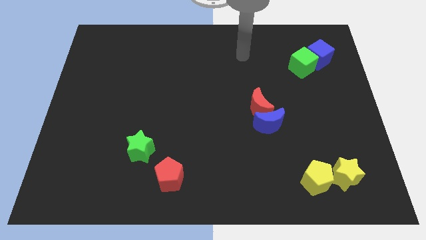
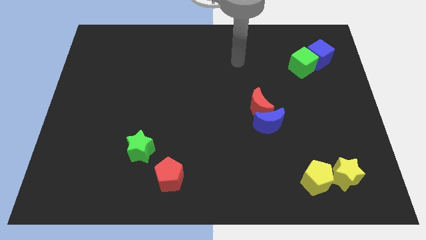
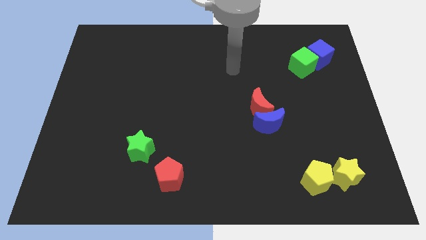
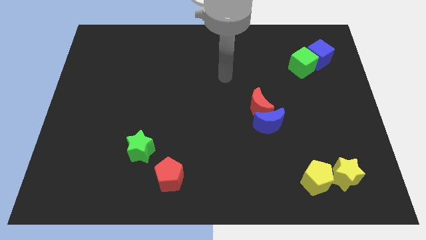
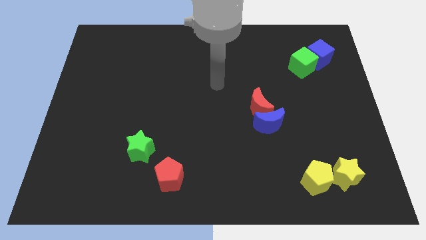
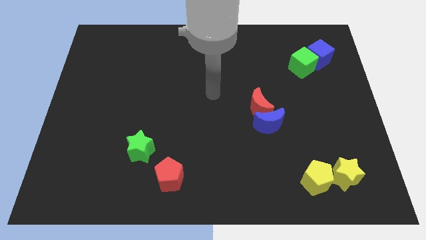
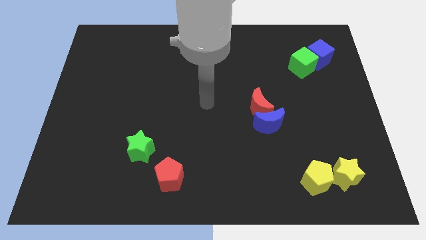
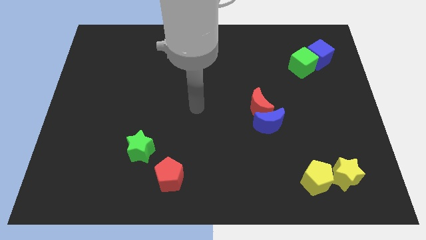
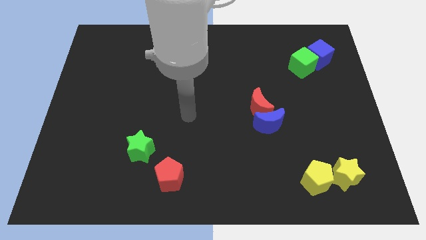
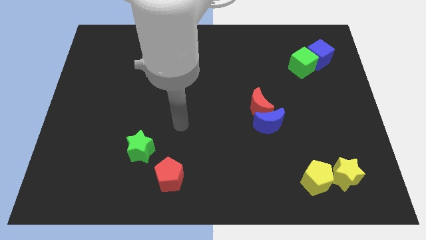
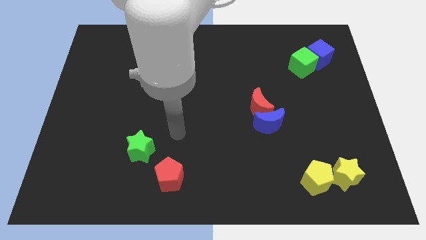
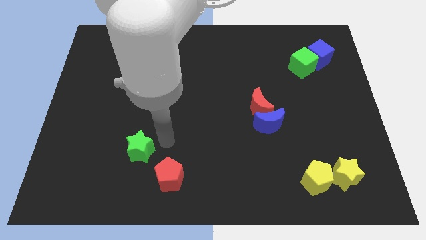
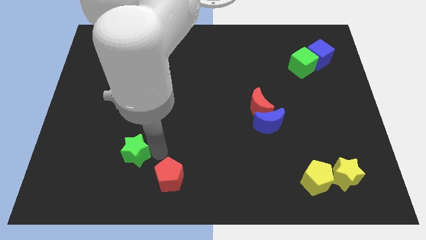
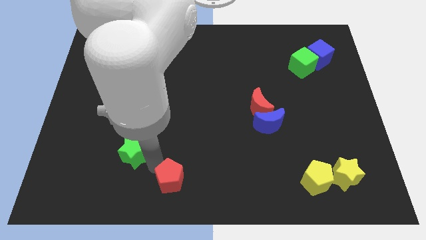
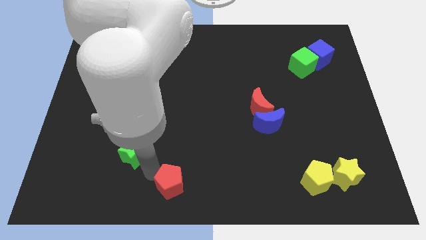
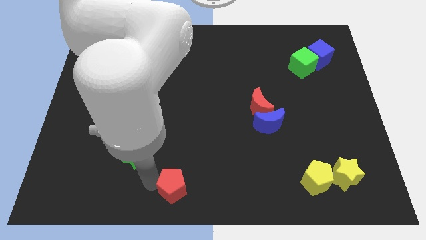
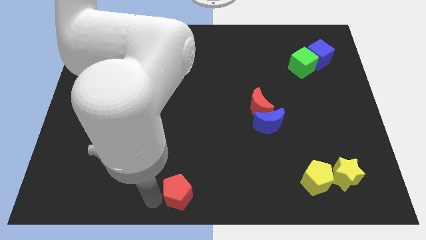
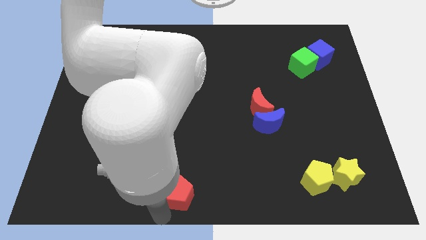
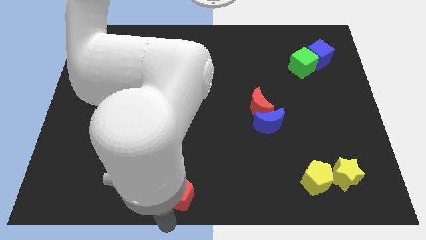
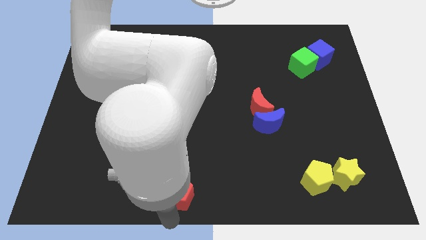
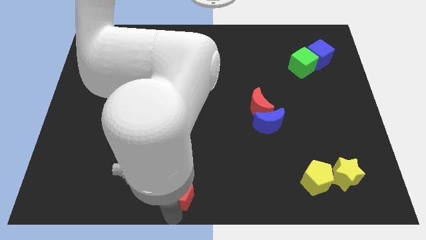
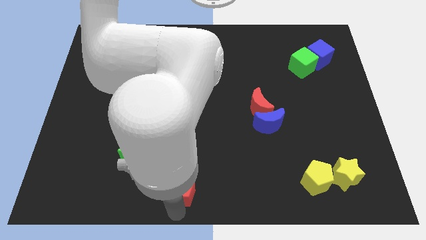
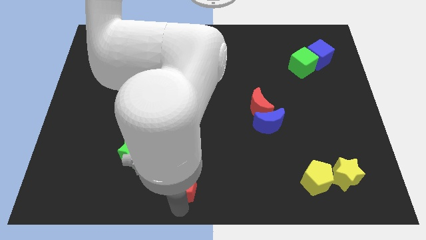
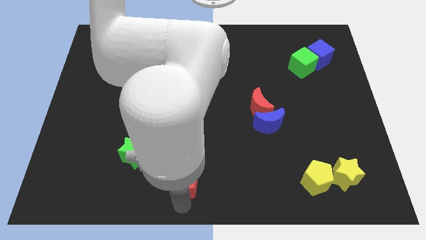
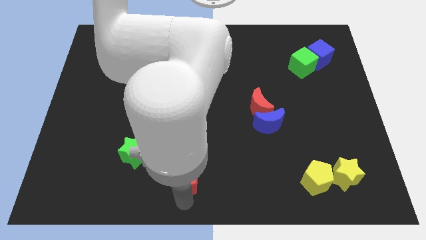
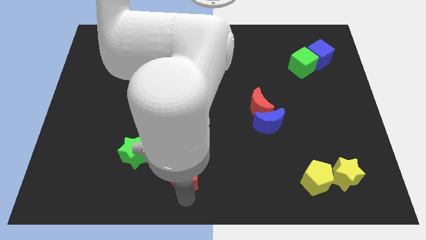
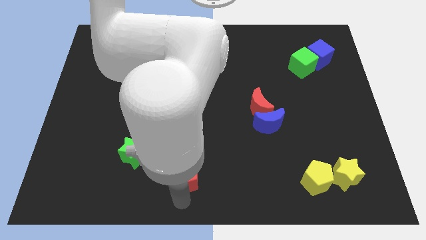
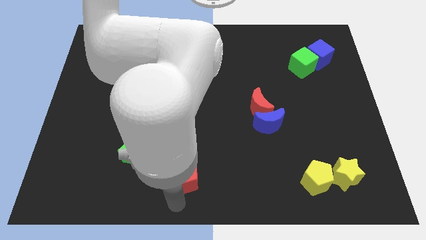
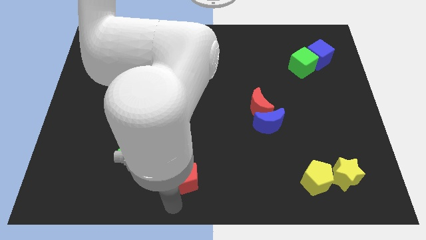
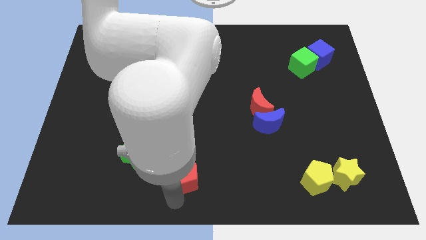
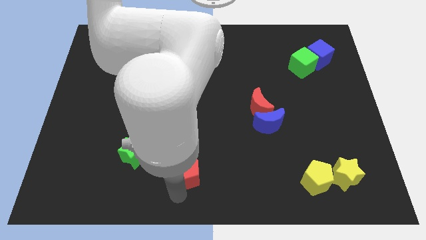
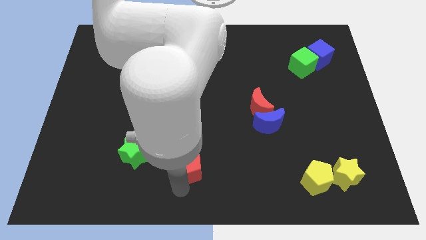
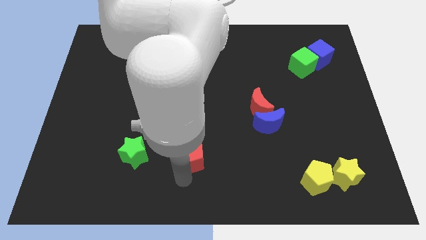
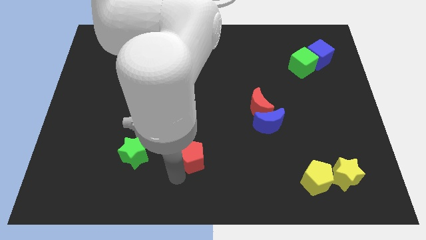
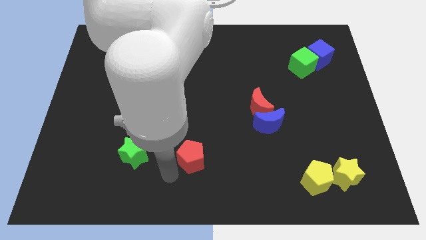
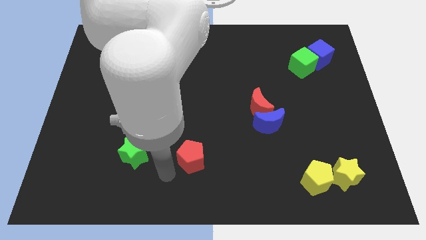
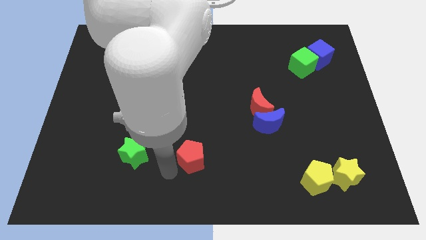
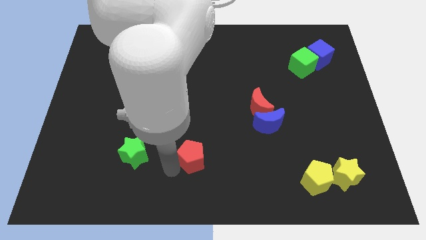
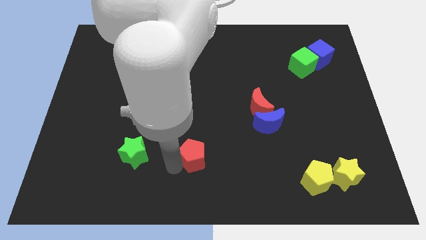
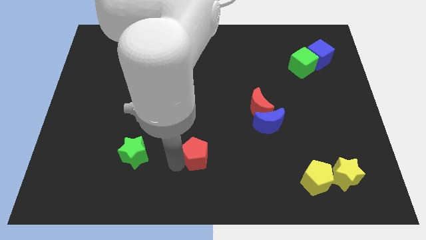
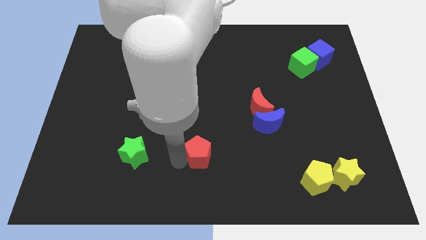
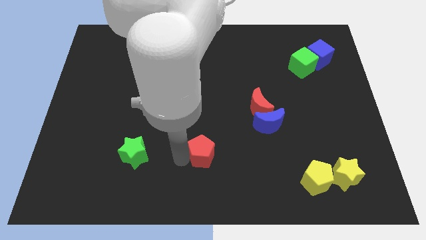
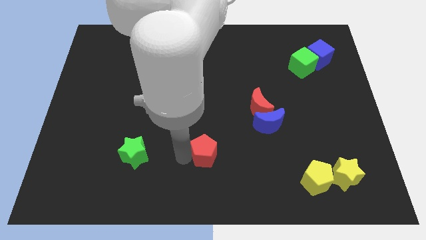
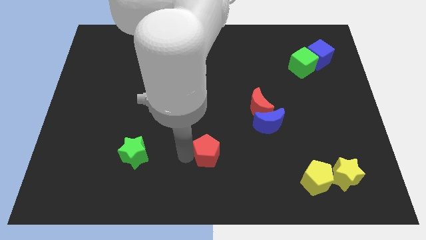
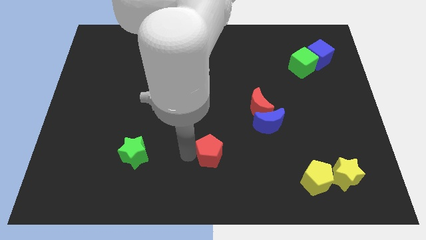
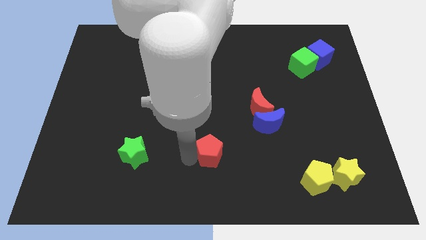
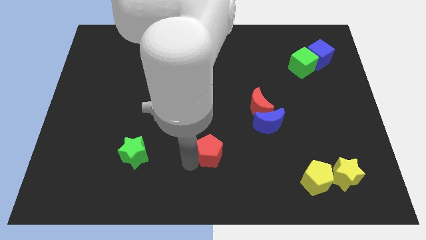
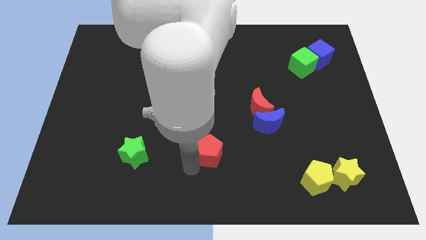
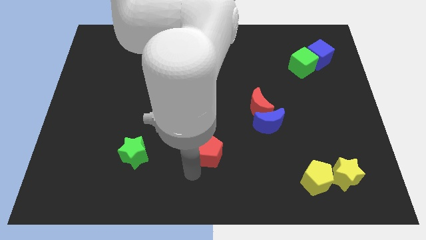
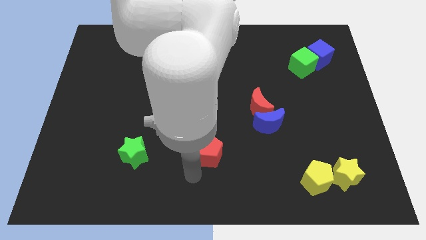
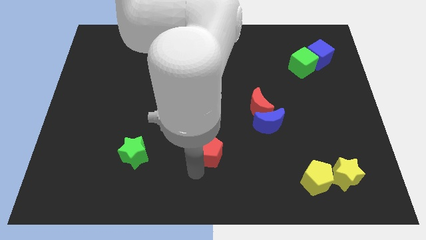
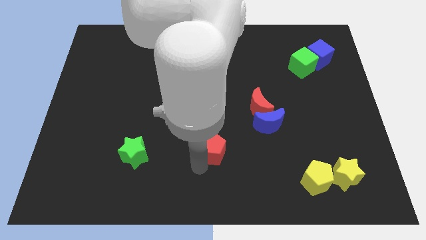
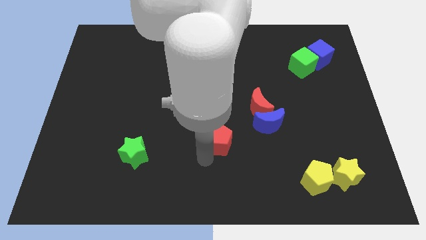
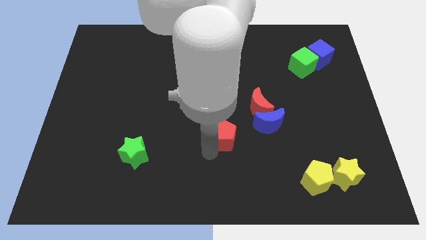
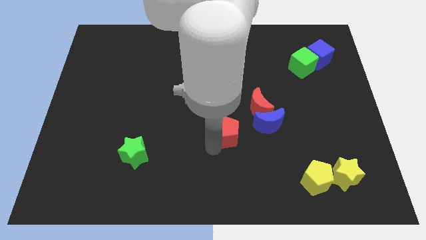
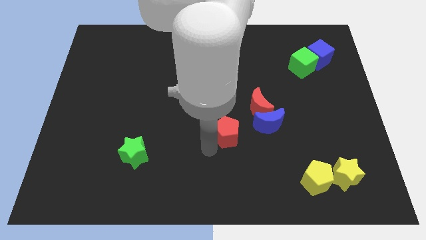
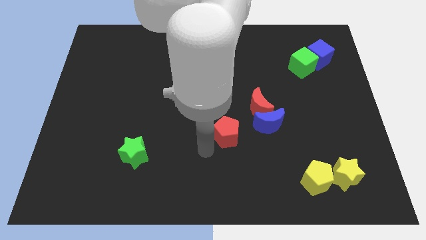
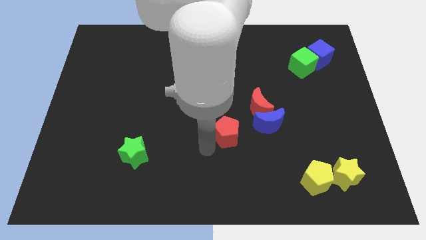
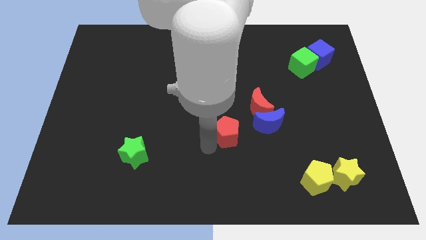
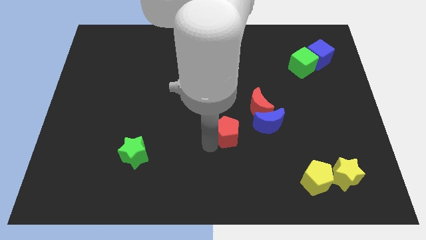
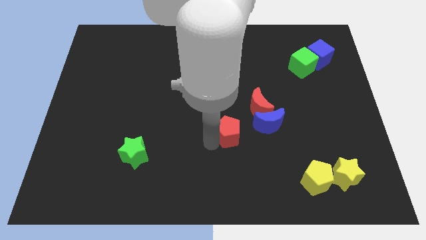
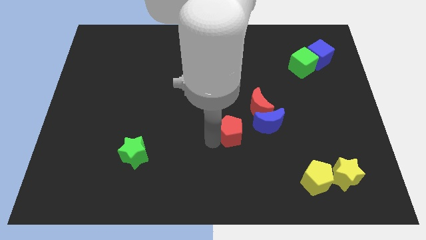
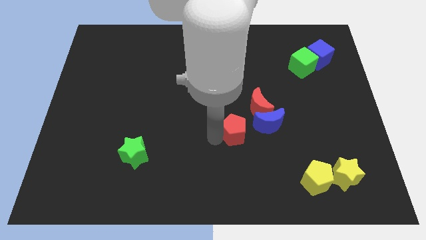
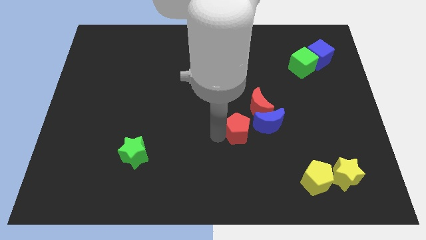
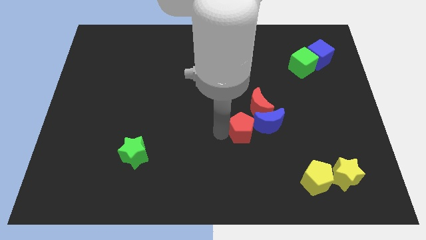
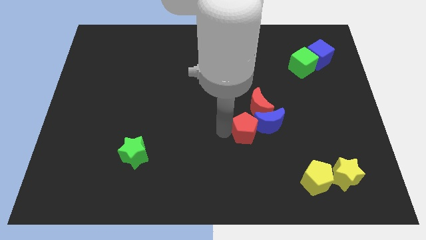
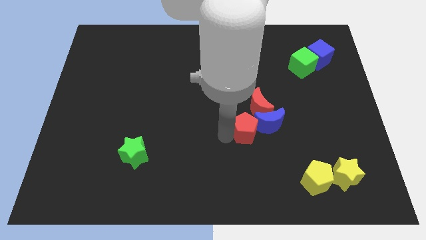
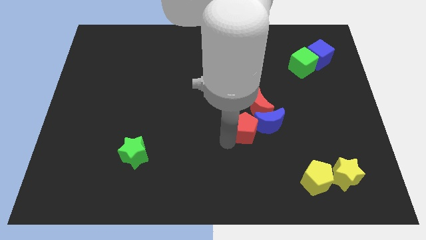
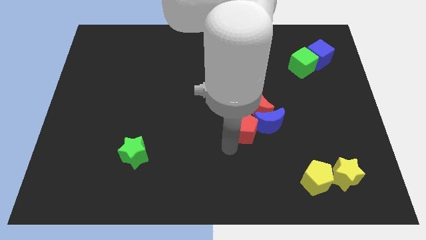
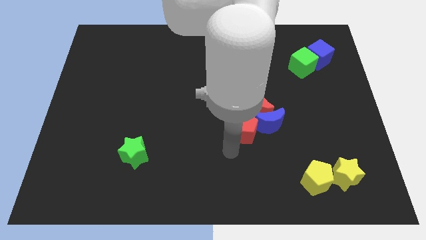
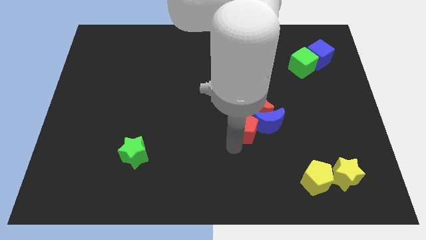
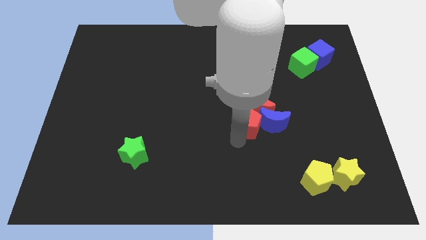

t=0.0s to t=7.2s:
slide the red pentagon to the red moon
